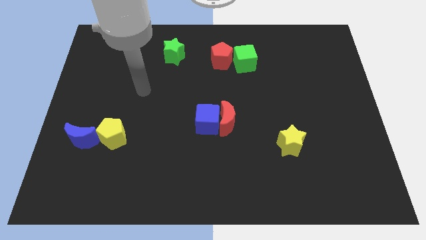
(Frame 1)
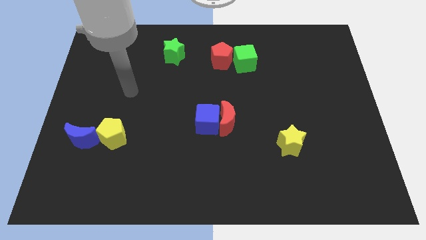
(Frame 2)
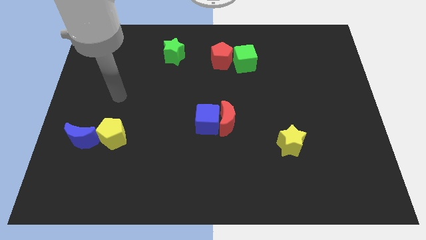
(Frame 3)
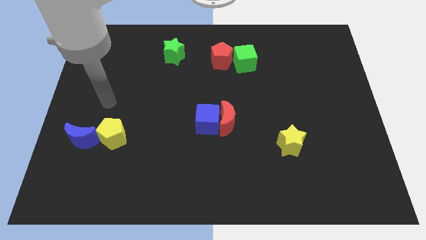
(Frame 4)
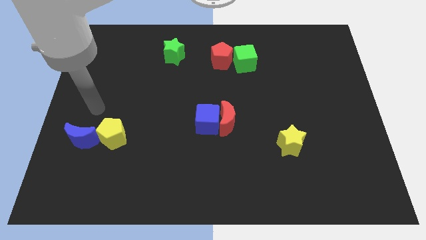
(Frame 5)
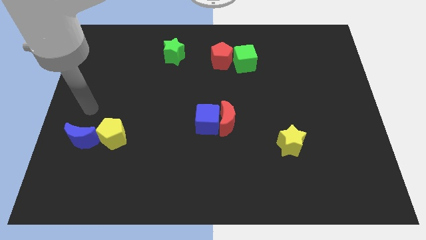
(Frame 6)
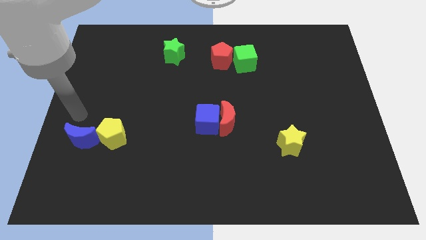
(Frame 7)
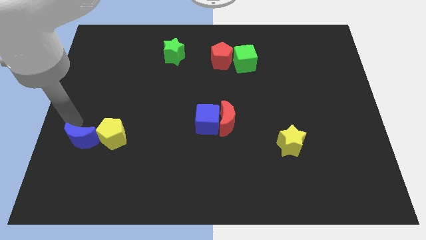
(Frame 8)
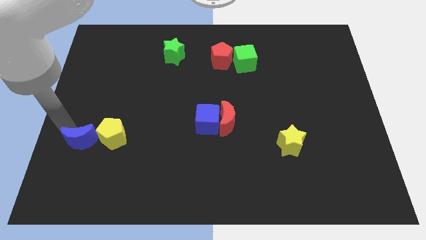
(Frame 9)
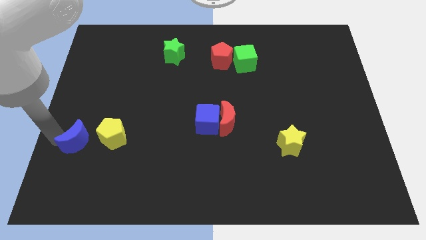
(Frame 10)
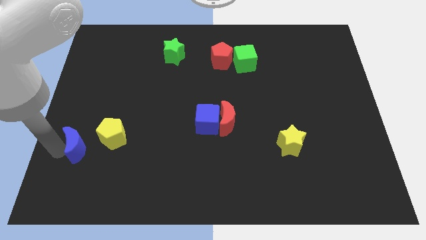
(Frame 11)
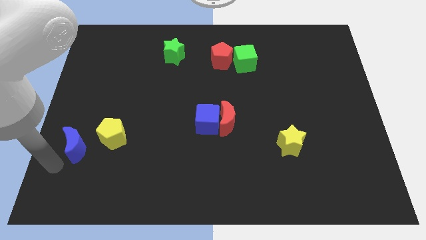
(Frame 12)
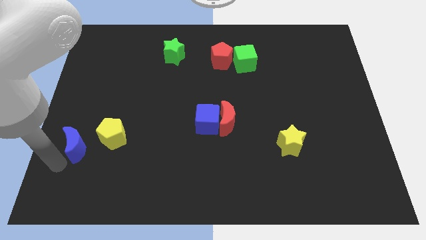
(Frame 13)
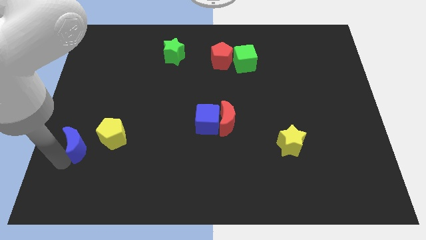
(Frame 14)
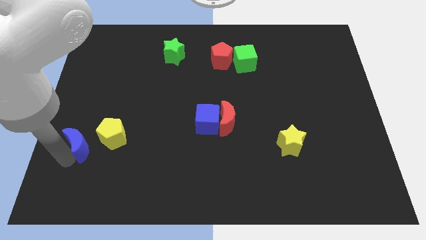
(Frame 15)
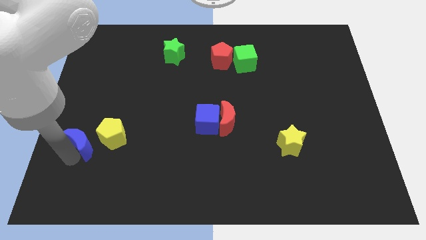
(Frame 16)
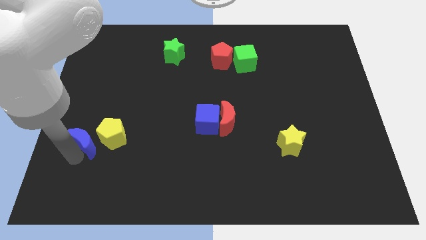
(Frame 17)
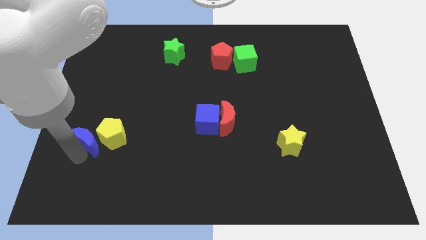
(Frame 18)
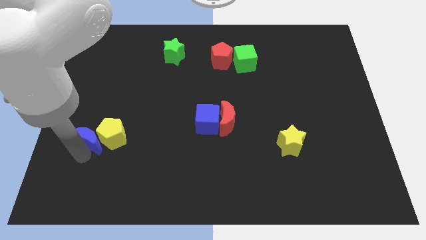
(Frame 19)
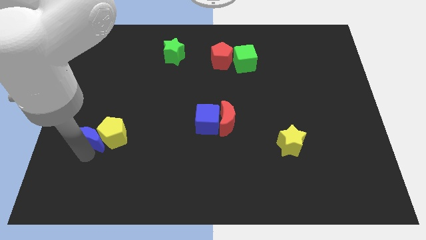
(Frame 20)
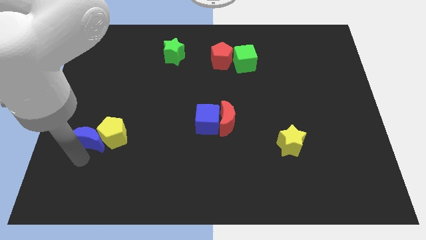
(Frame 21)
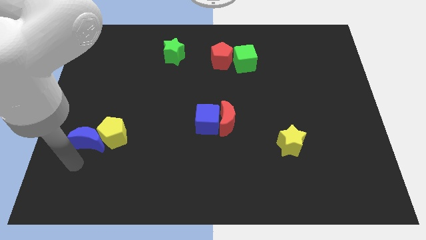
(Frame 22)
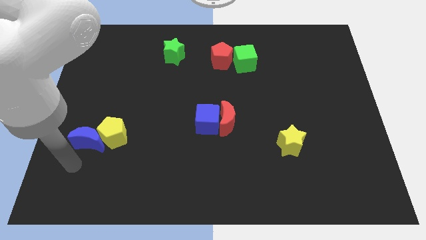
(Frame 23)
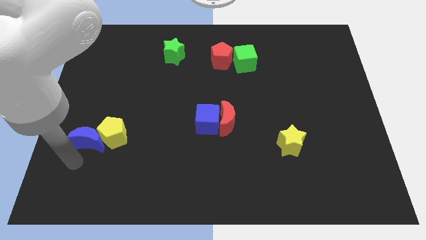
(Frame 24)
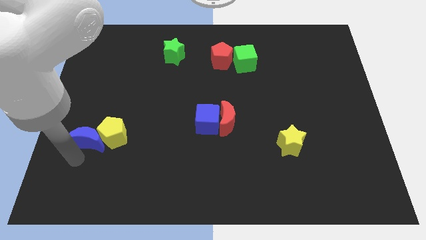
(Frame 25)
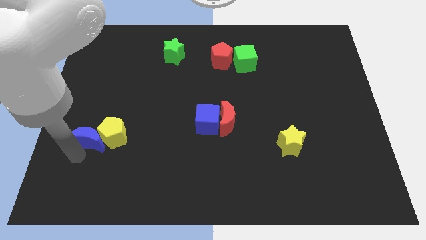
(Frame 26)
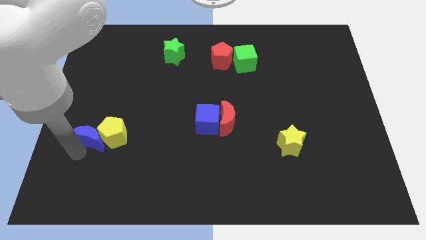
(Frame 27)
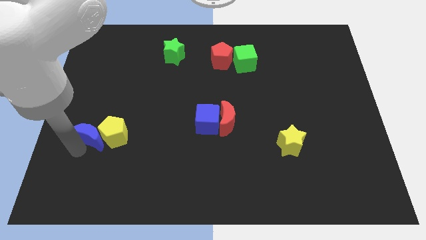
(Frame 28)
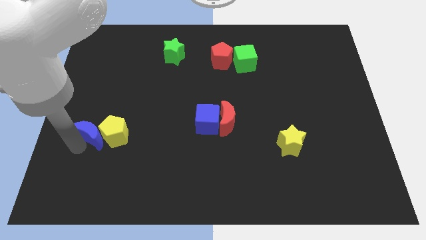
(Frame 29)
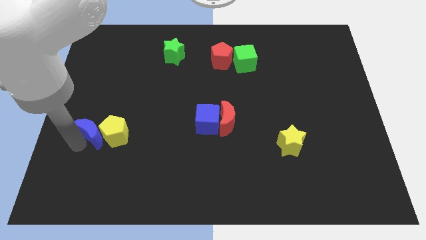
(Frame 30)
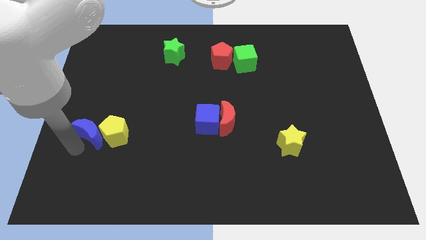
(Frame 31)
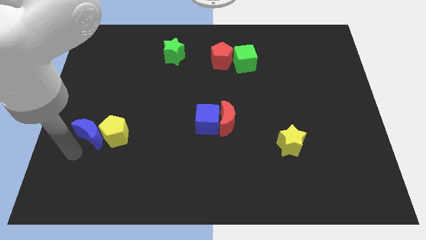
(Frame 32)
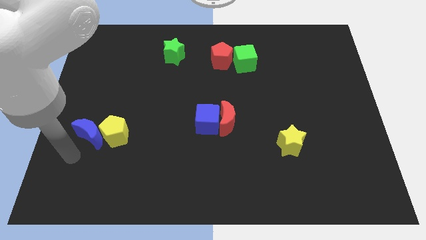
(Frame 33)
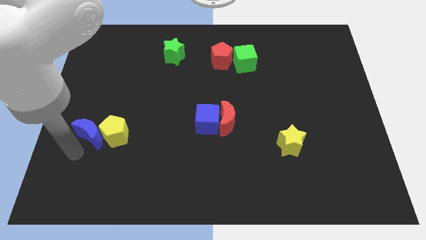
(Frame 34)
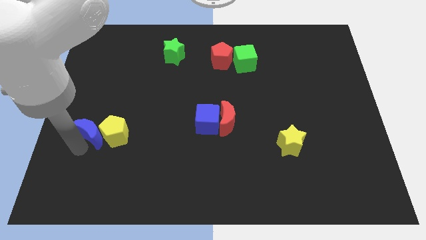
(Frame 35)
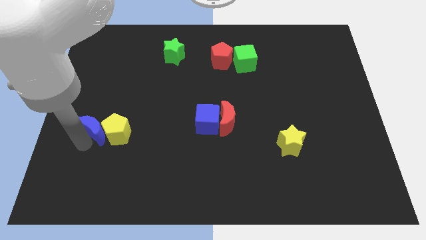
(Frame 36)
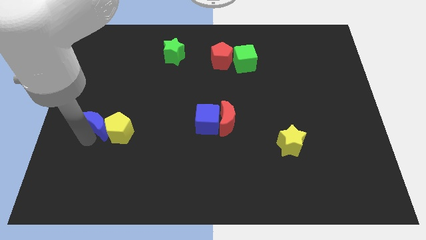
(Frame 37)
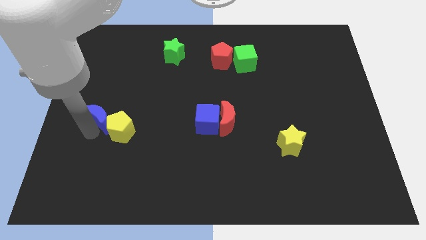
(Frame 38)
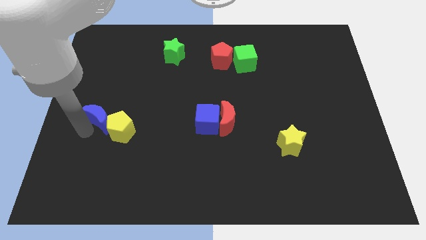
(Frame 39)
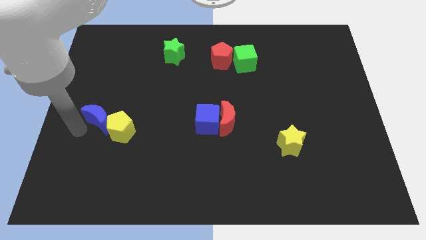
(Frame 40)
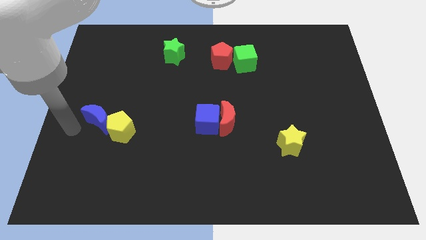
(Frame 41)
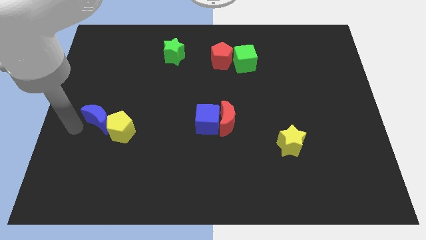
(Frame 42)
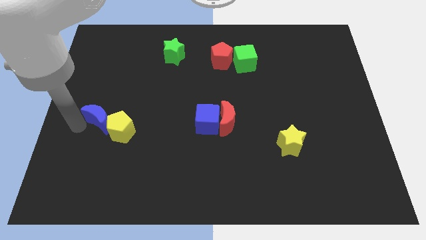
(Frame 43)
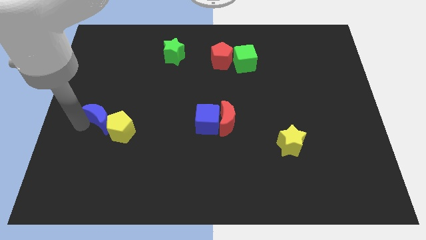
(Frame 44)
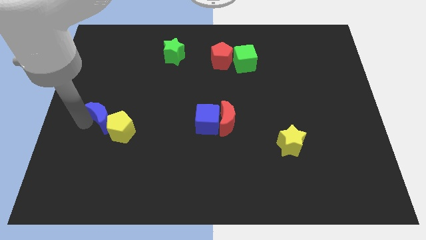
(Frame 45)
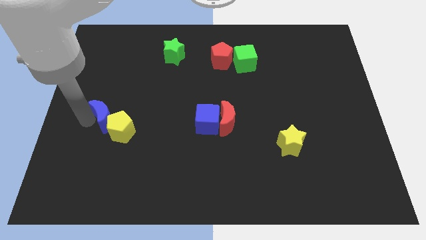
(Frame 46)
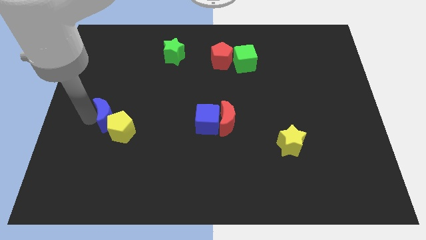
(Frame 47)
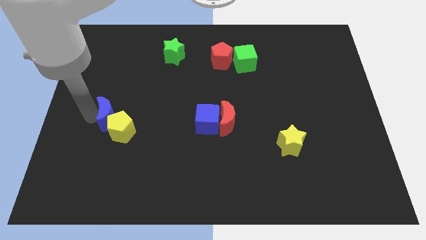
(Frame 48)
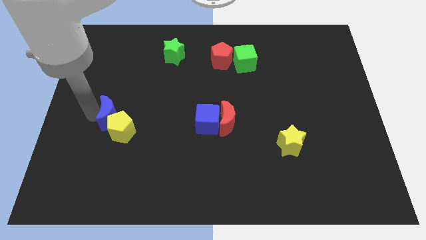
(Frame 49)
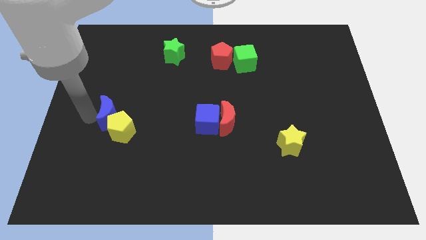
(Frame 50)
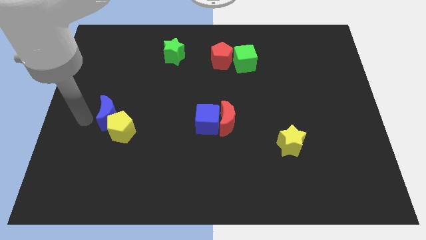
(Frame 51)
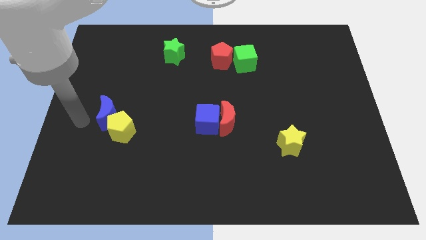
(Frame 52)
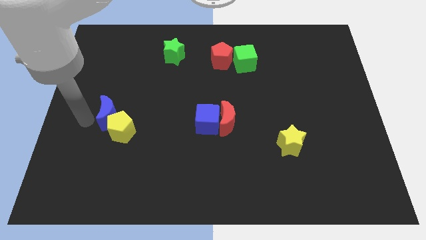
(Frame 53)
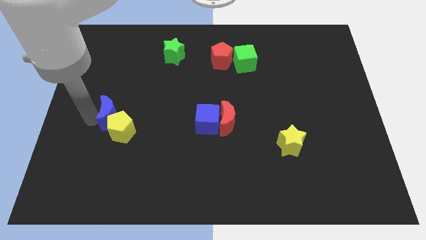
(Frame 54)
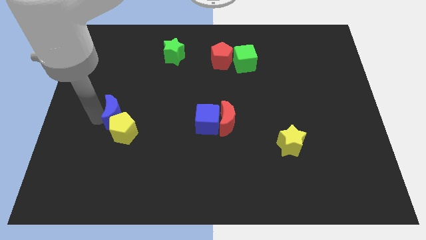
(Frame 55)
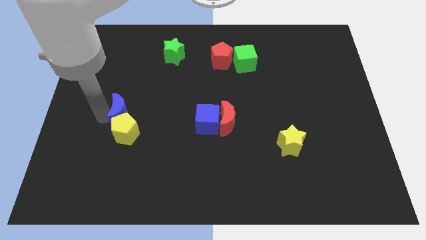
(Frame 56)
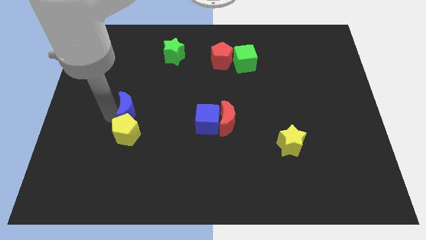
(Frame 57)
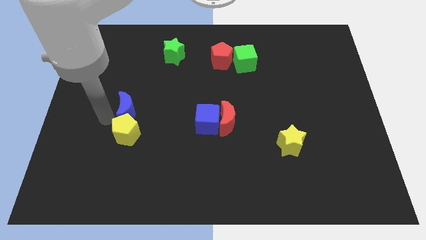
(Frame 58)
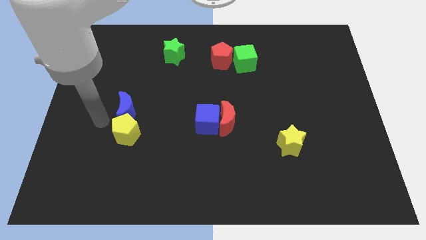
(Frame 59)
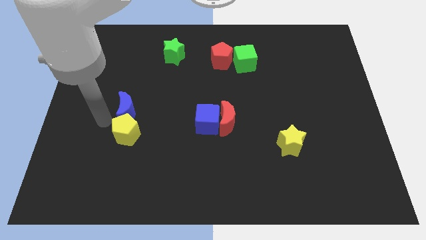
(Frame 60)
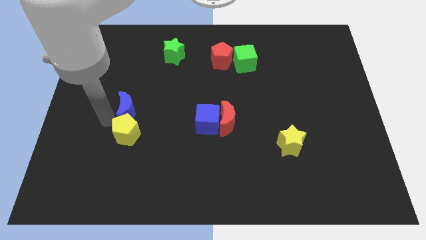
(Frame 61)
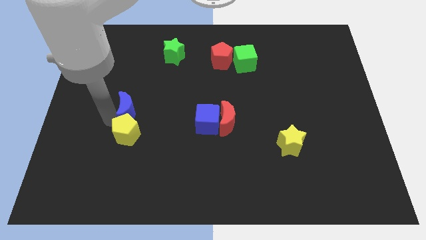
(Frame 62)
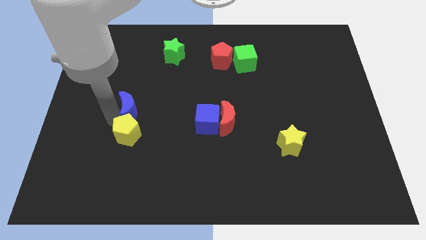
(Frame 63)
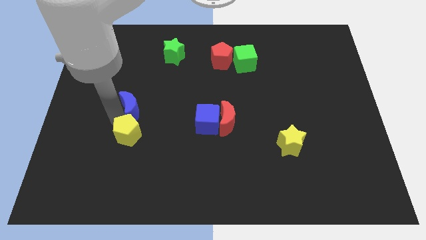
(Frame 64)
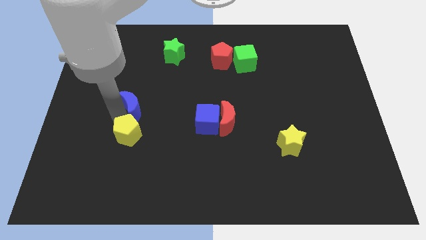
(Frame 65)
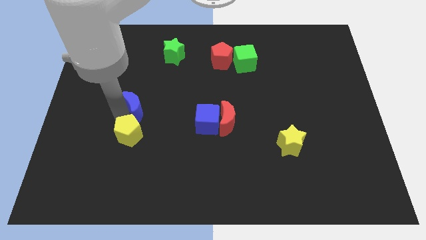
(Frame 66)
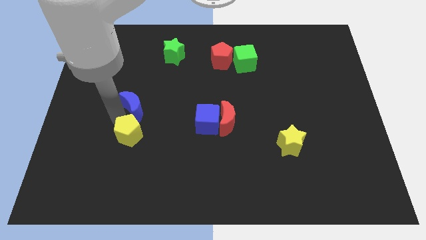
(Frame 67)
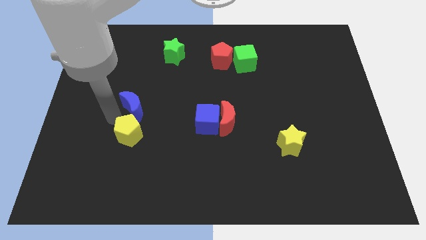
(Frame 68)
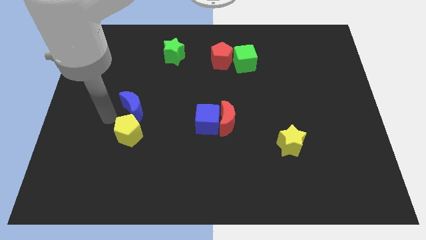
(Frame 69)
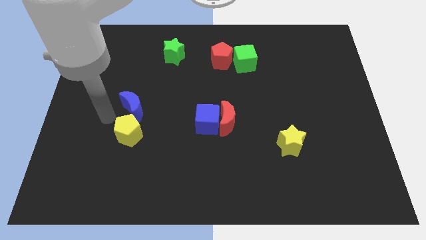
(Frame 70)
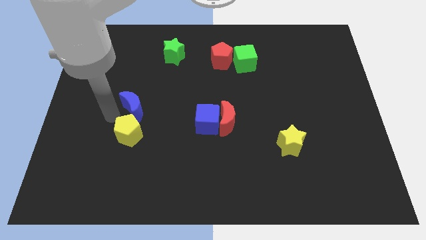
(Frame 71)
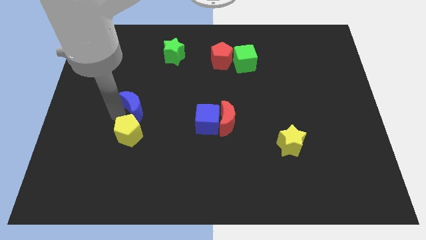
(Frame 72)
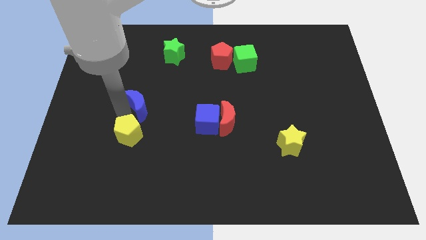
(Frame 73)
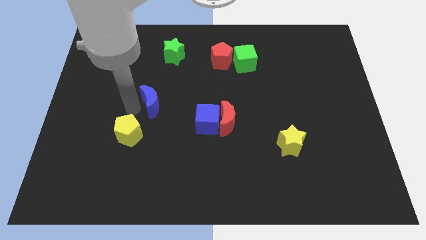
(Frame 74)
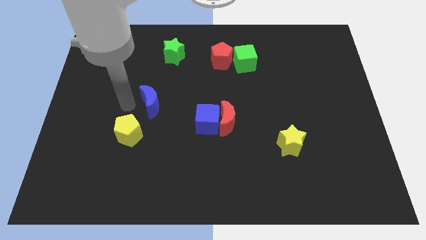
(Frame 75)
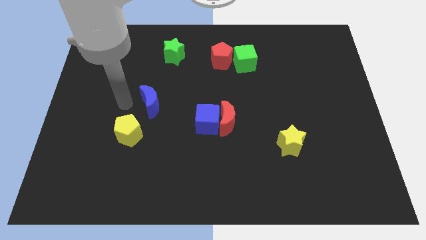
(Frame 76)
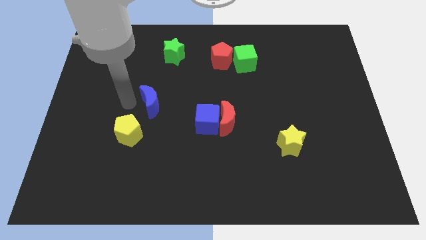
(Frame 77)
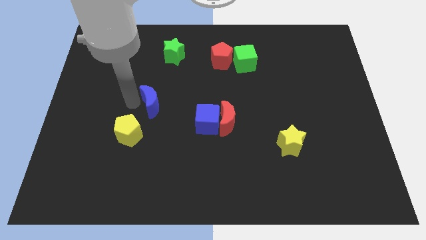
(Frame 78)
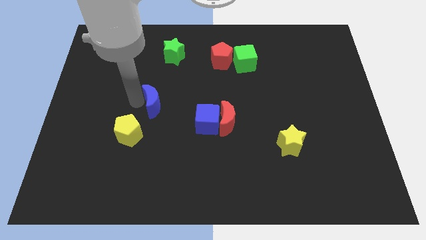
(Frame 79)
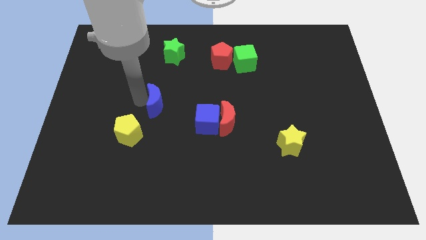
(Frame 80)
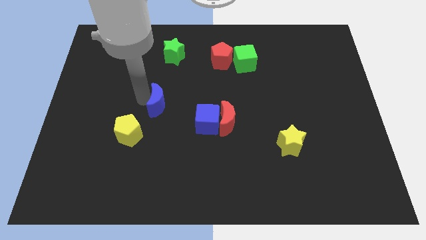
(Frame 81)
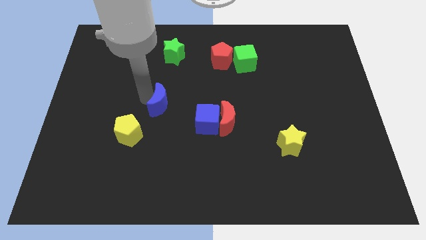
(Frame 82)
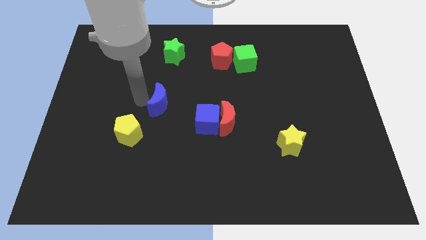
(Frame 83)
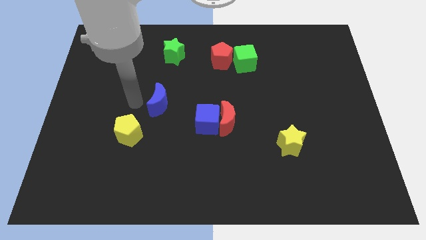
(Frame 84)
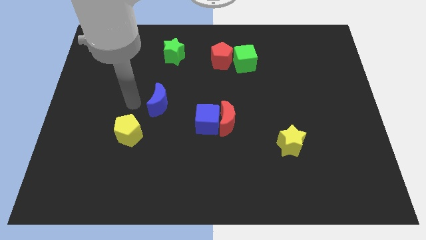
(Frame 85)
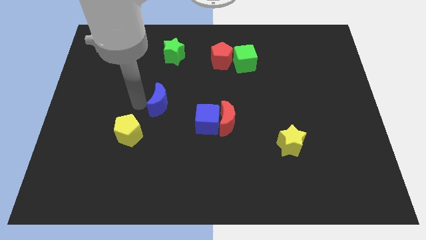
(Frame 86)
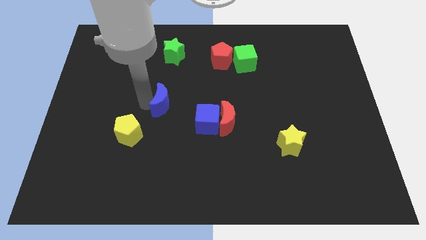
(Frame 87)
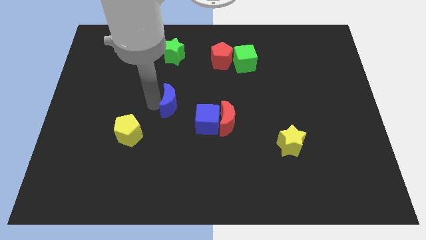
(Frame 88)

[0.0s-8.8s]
slide the blue moon to the top left side of the blue cube
